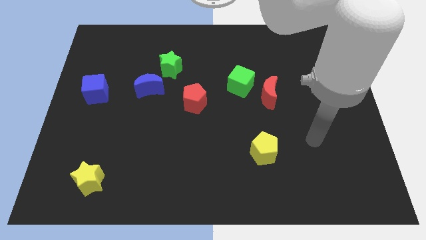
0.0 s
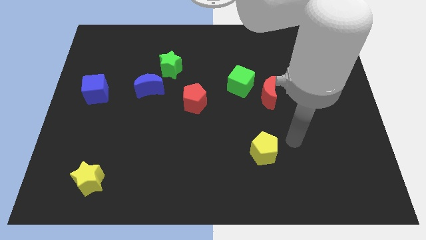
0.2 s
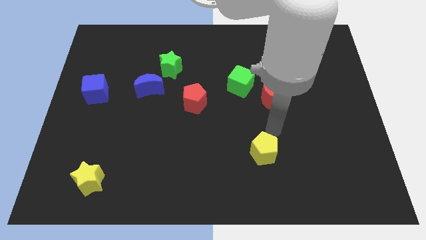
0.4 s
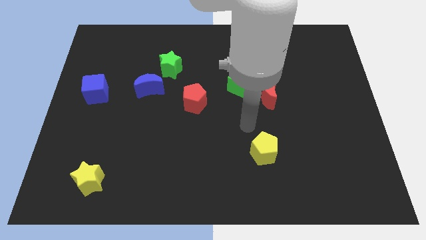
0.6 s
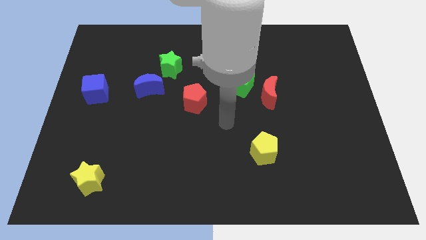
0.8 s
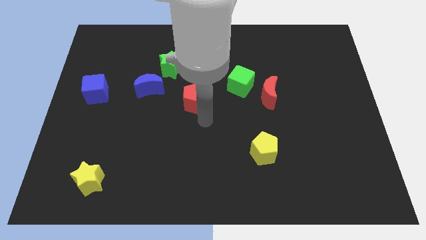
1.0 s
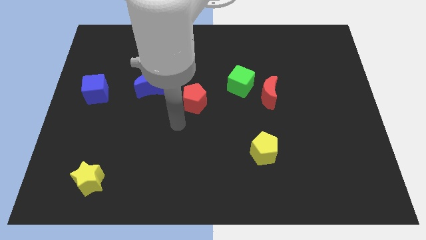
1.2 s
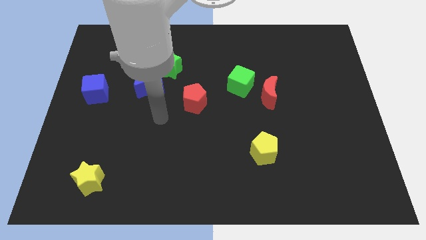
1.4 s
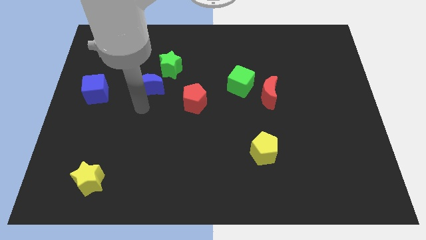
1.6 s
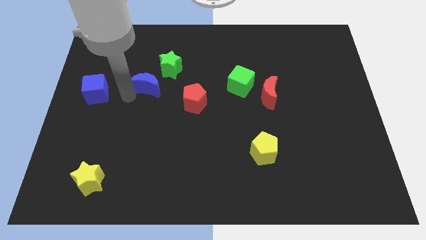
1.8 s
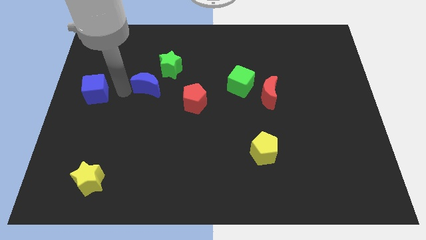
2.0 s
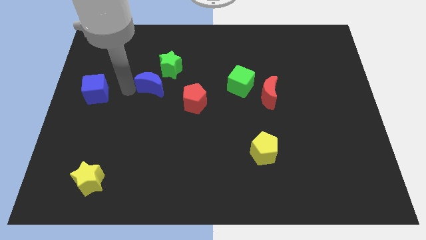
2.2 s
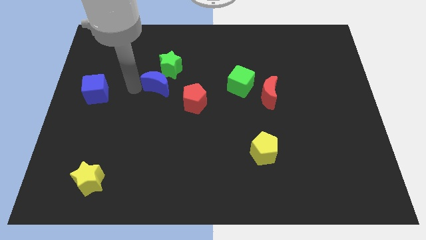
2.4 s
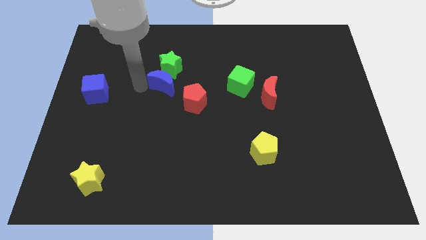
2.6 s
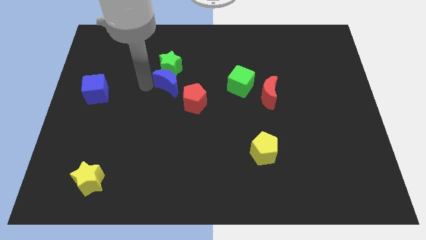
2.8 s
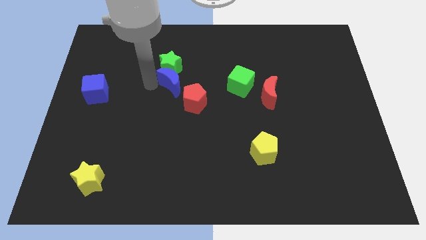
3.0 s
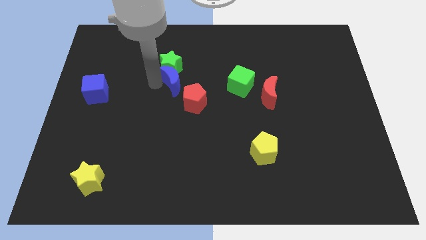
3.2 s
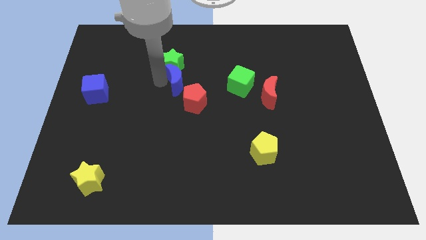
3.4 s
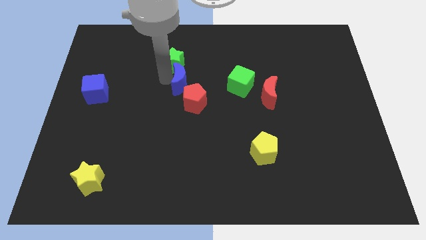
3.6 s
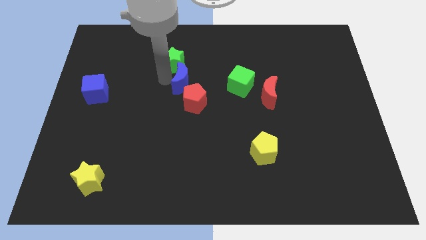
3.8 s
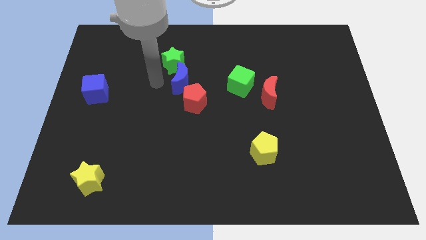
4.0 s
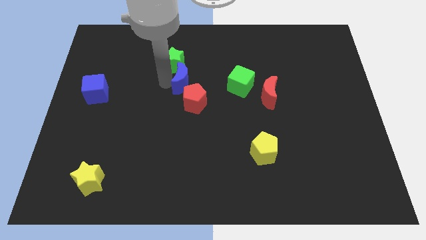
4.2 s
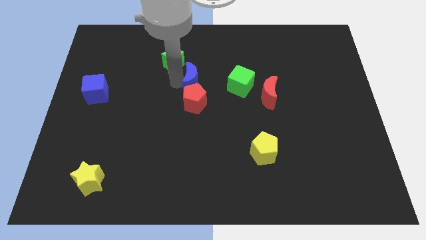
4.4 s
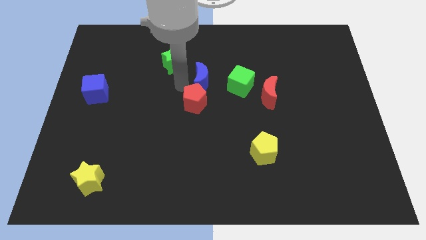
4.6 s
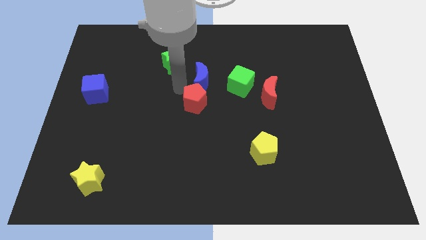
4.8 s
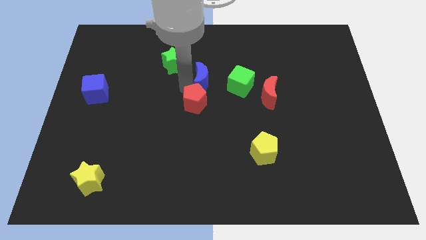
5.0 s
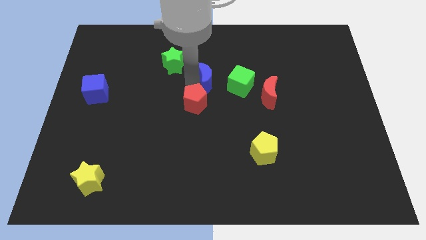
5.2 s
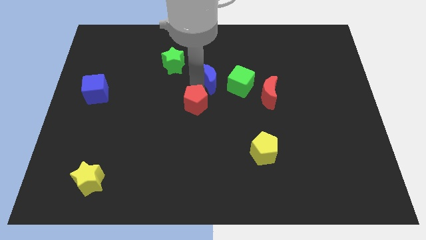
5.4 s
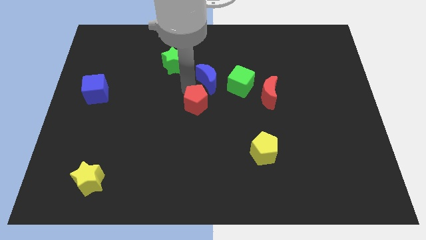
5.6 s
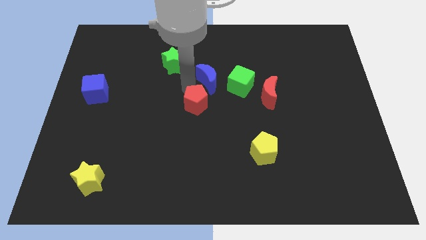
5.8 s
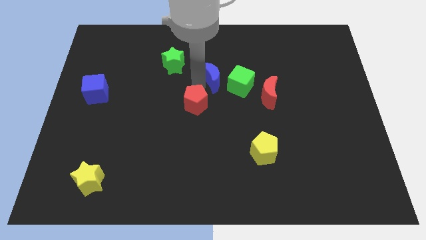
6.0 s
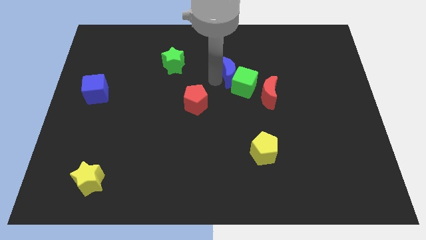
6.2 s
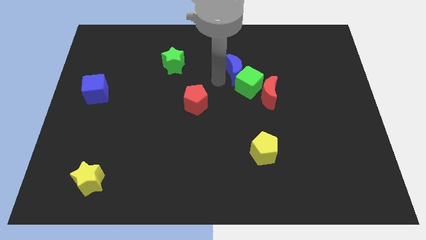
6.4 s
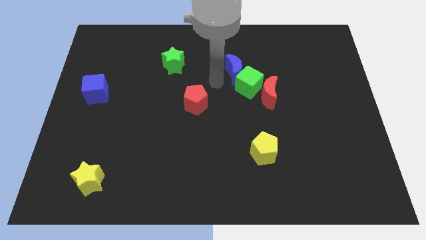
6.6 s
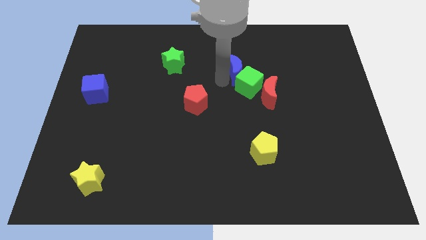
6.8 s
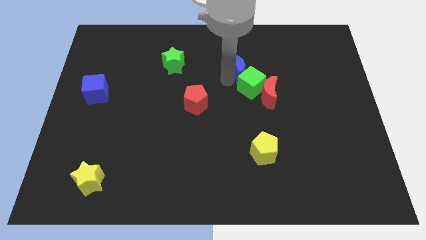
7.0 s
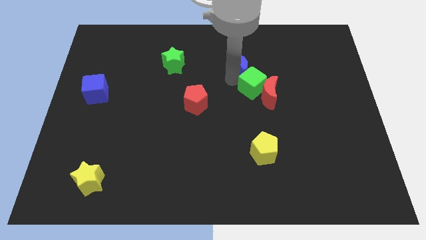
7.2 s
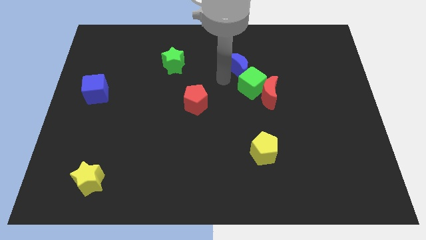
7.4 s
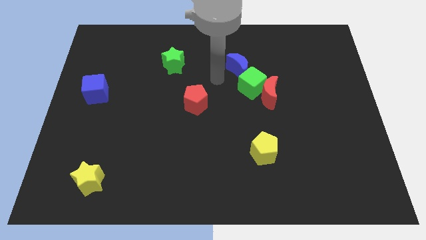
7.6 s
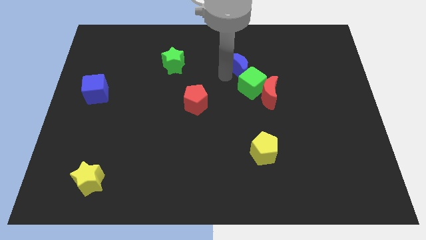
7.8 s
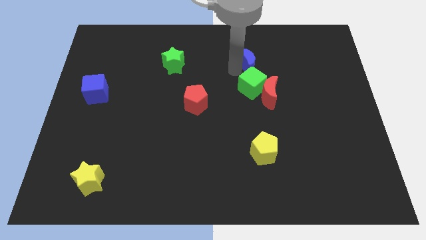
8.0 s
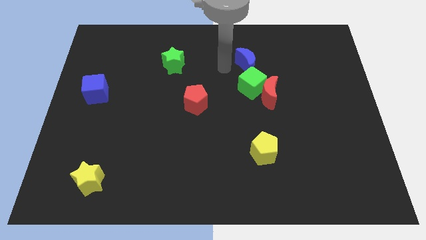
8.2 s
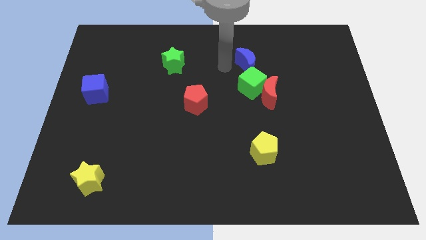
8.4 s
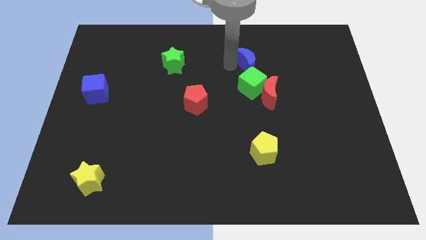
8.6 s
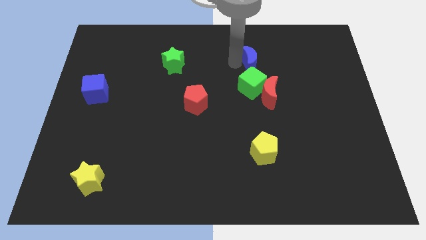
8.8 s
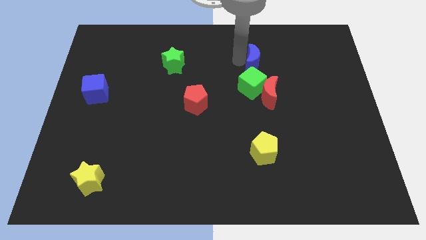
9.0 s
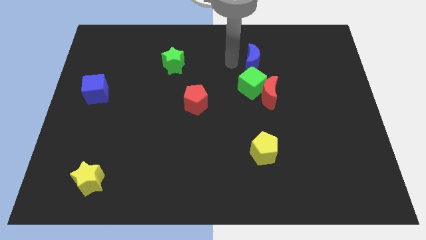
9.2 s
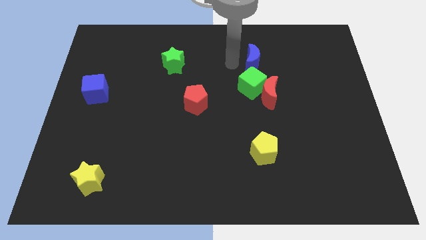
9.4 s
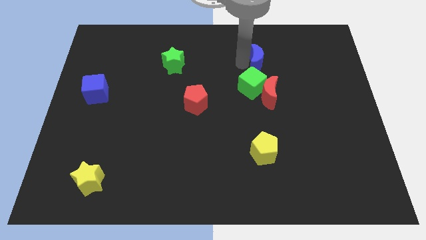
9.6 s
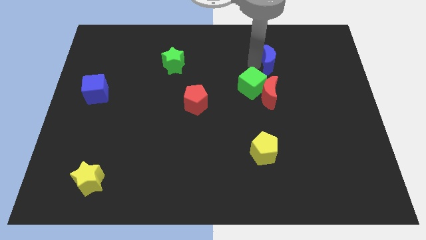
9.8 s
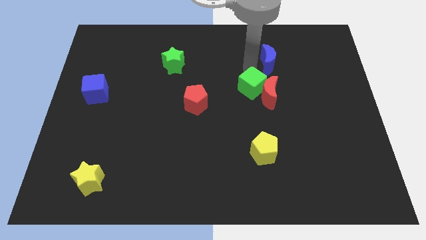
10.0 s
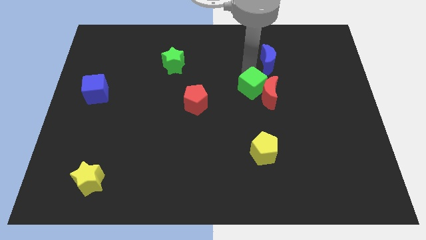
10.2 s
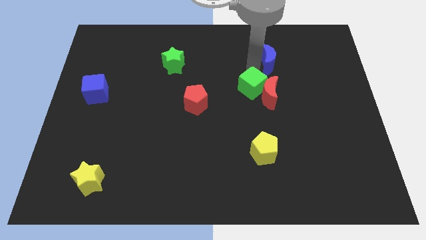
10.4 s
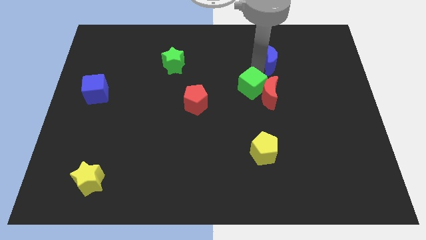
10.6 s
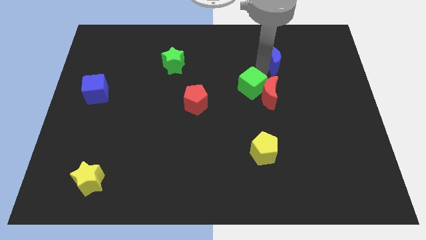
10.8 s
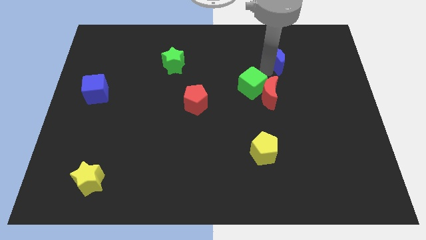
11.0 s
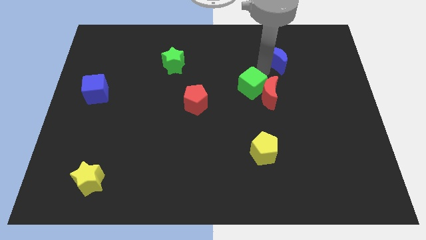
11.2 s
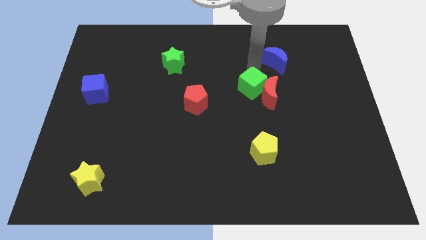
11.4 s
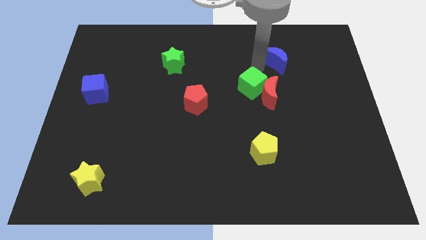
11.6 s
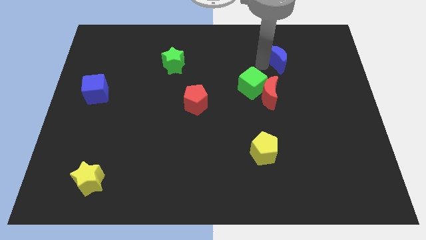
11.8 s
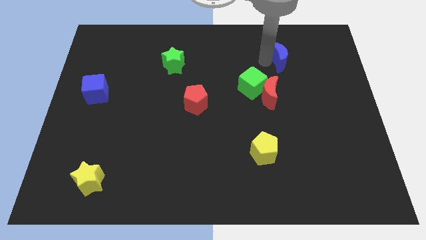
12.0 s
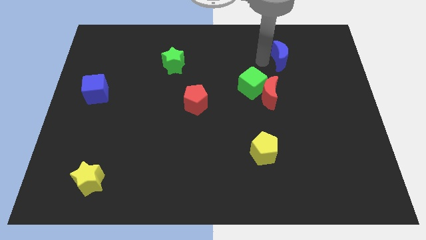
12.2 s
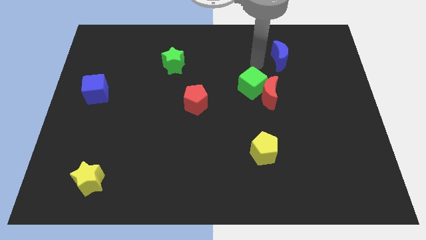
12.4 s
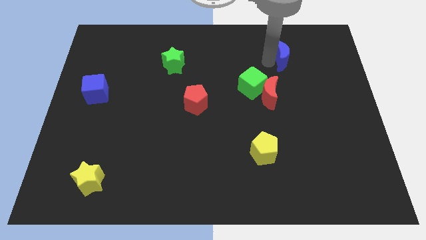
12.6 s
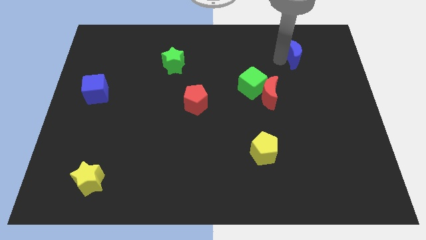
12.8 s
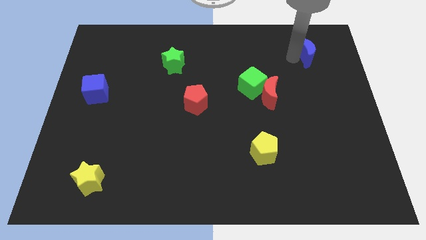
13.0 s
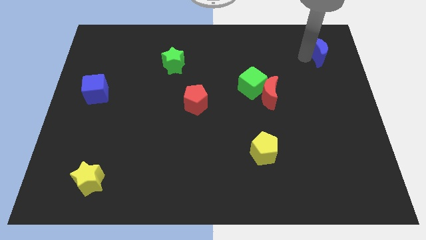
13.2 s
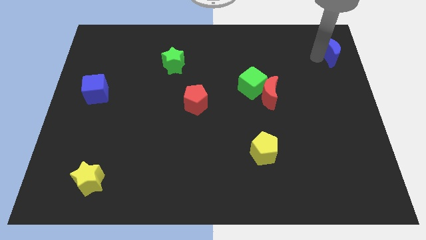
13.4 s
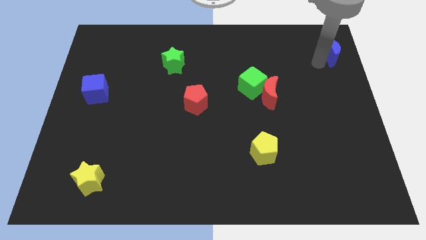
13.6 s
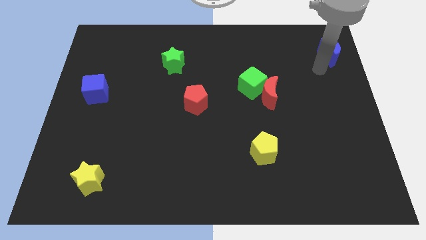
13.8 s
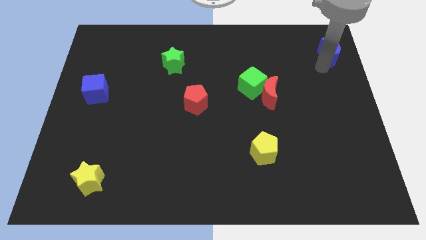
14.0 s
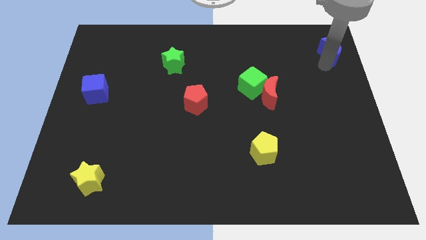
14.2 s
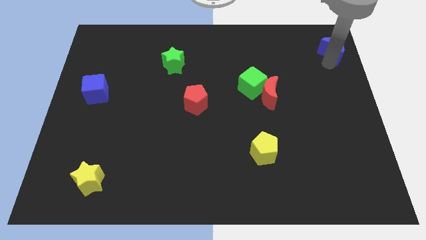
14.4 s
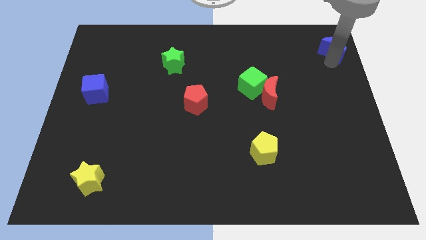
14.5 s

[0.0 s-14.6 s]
move the blue moon to the upper right corner

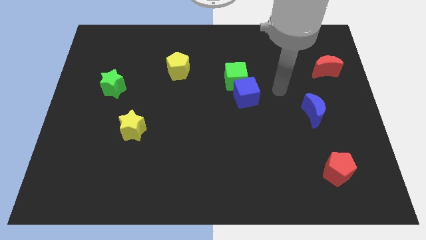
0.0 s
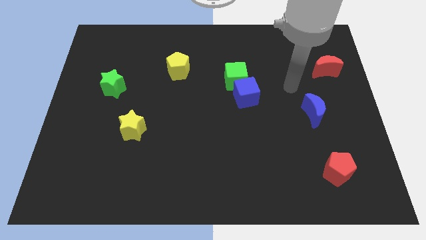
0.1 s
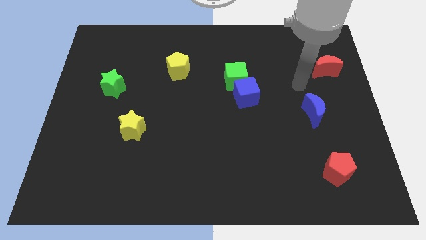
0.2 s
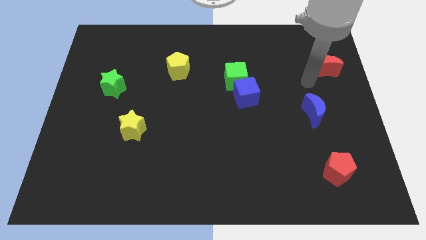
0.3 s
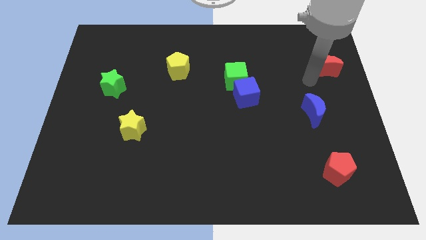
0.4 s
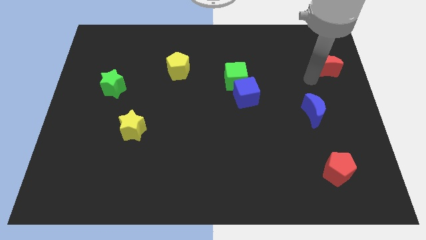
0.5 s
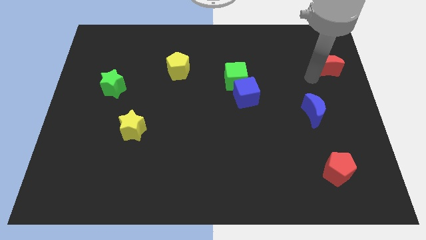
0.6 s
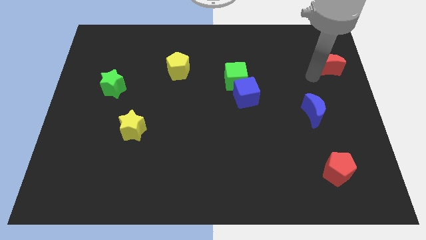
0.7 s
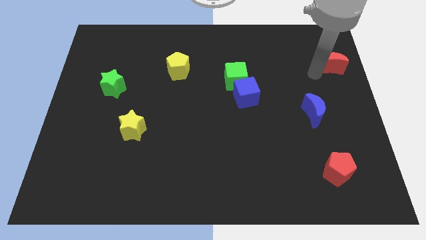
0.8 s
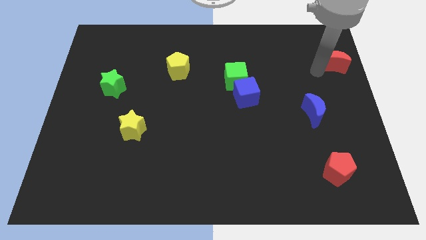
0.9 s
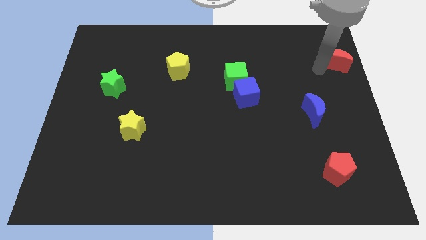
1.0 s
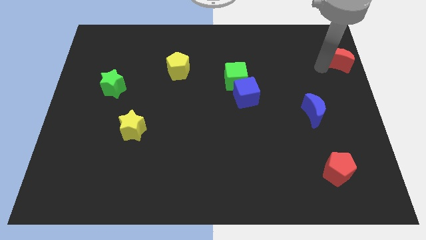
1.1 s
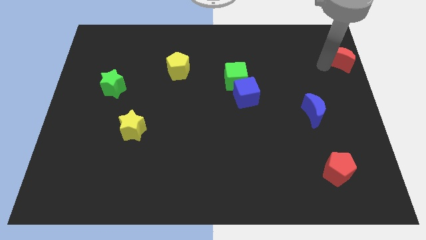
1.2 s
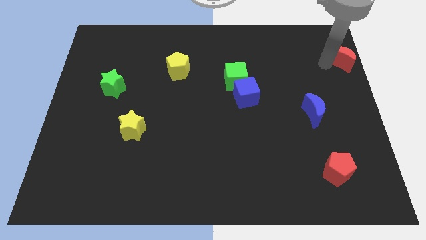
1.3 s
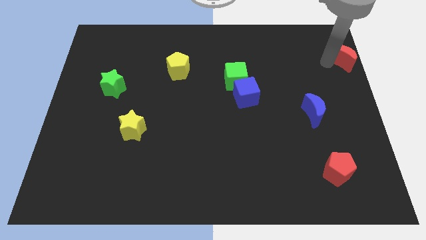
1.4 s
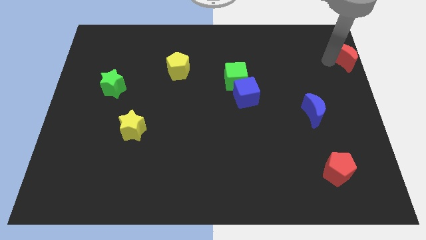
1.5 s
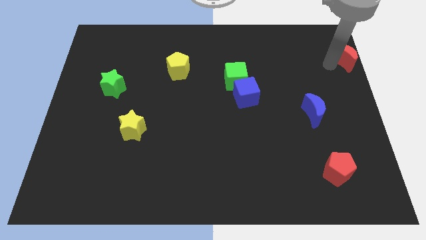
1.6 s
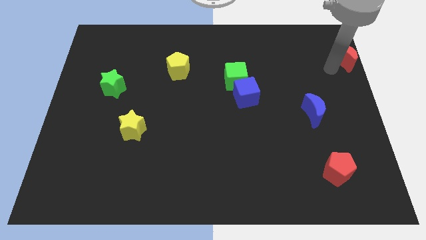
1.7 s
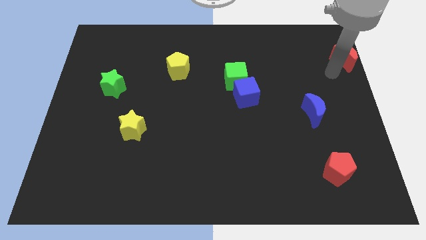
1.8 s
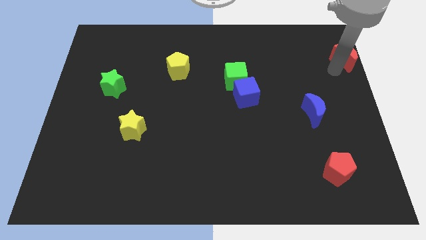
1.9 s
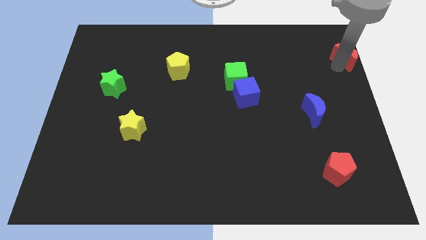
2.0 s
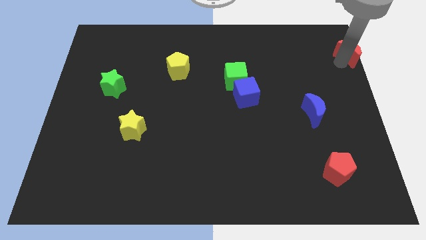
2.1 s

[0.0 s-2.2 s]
push the red moon to the top right of the board
